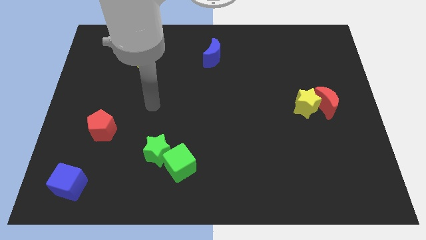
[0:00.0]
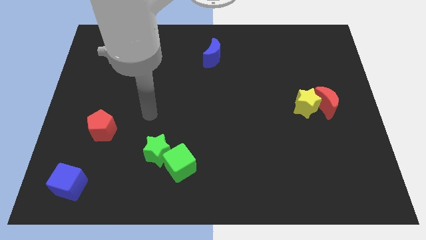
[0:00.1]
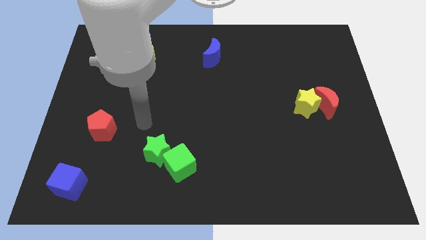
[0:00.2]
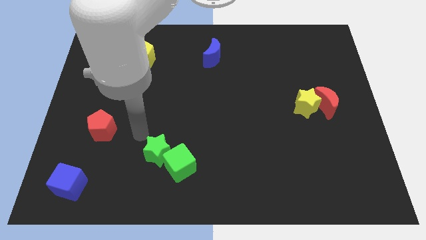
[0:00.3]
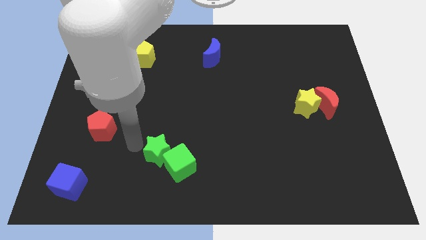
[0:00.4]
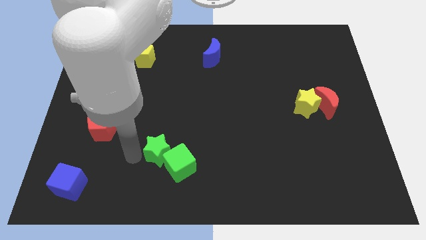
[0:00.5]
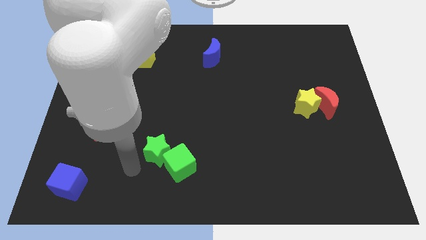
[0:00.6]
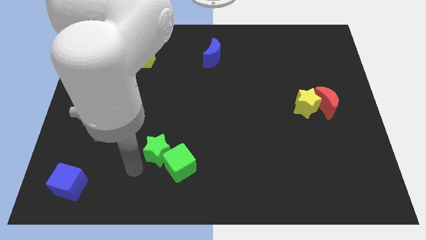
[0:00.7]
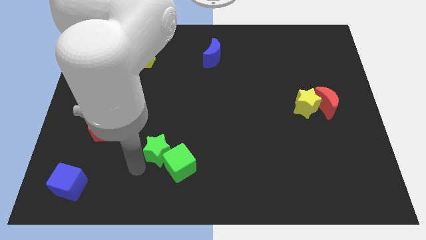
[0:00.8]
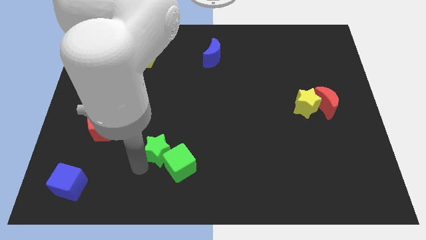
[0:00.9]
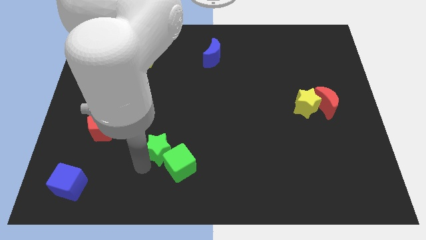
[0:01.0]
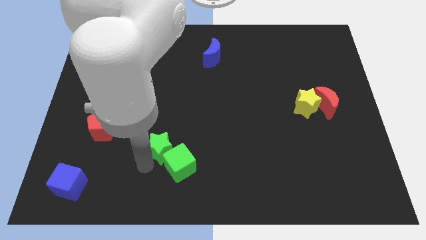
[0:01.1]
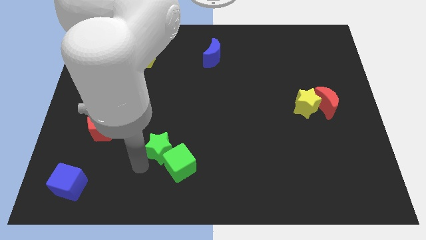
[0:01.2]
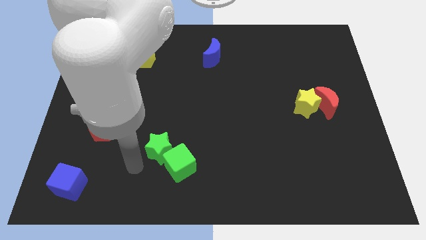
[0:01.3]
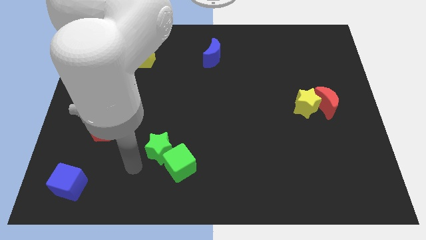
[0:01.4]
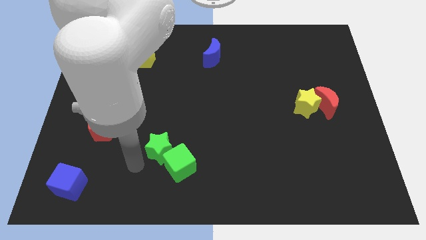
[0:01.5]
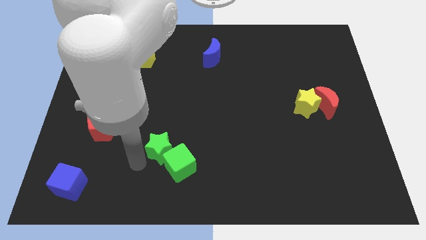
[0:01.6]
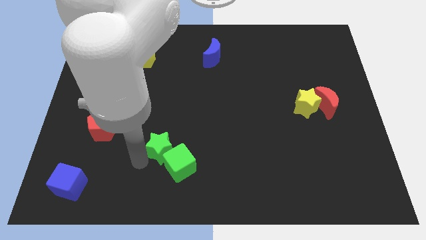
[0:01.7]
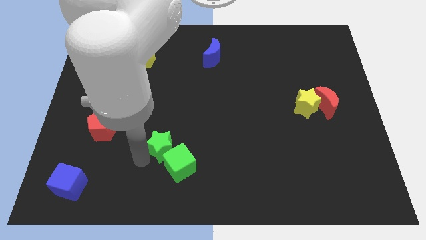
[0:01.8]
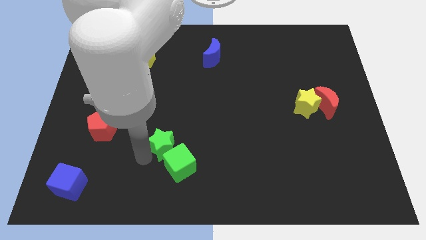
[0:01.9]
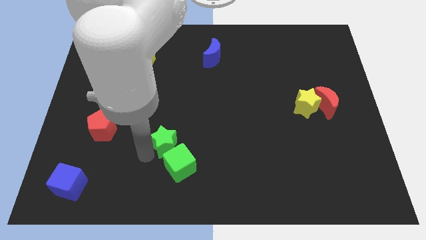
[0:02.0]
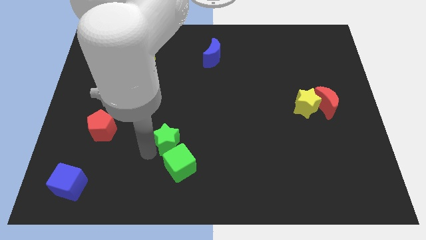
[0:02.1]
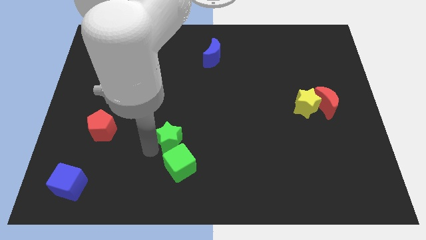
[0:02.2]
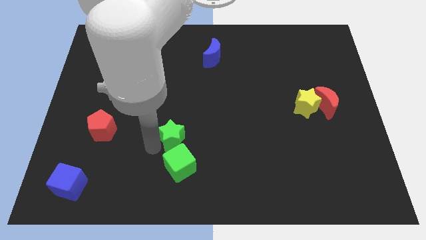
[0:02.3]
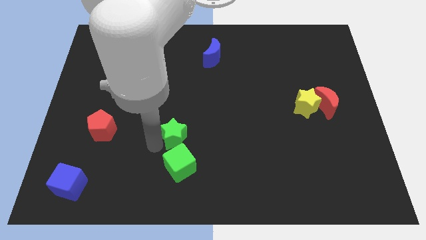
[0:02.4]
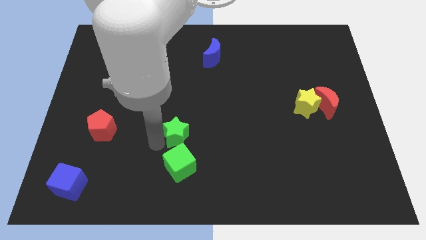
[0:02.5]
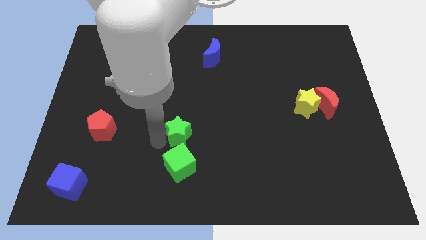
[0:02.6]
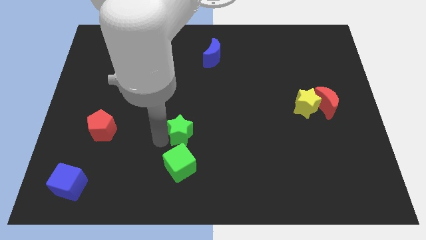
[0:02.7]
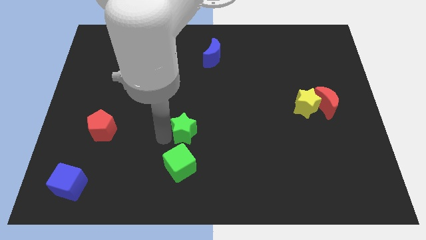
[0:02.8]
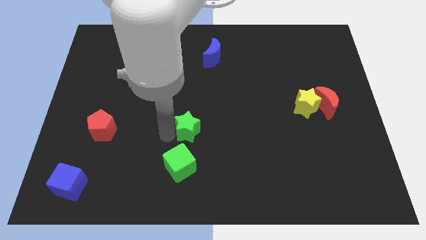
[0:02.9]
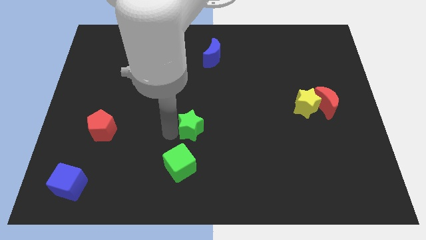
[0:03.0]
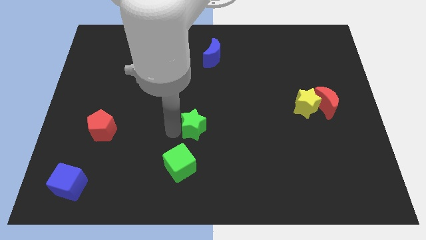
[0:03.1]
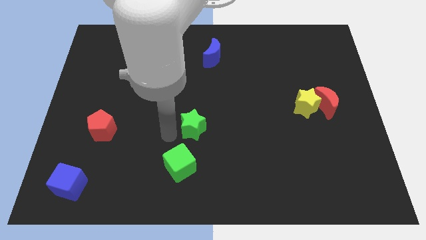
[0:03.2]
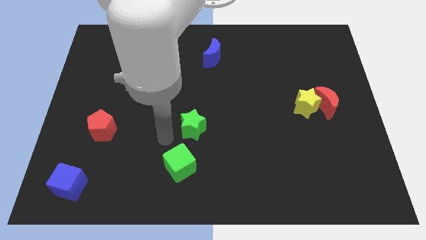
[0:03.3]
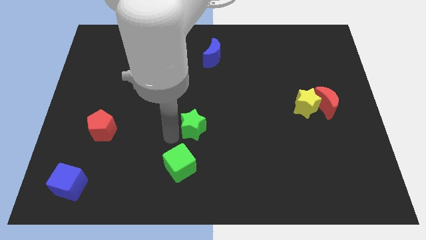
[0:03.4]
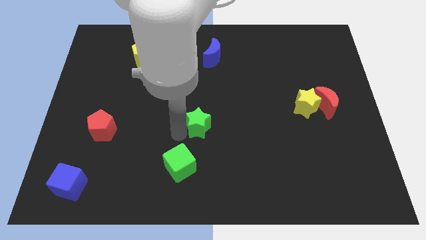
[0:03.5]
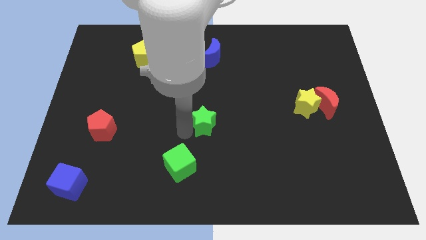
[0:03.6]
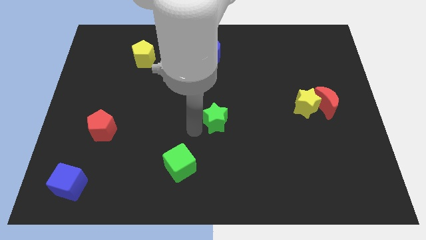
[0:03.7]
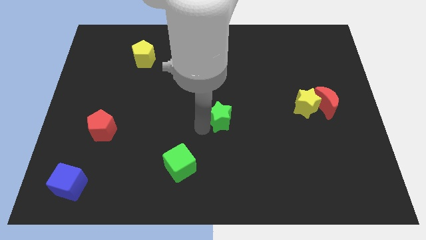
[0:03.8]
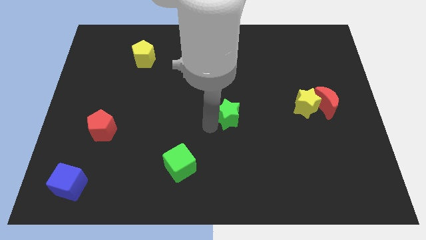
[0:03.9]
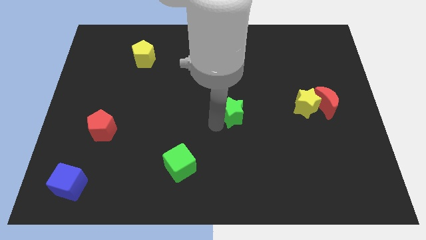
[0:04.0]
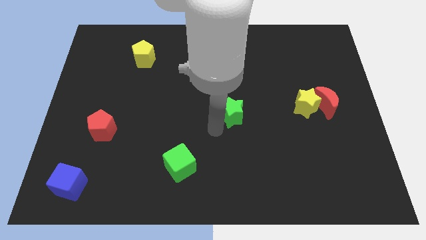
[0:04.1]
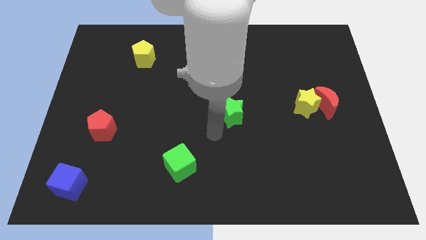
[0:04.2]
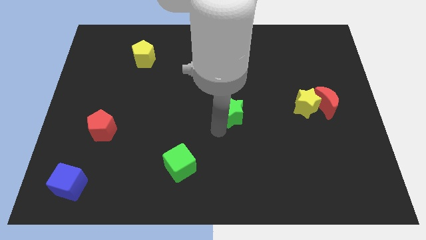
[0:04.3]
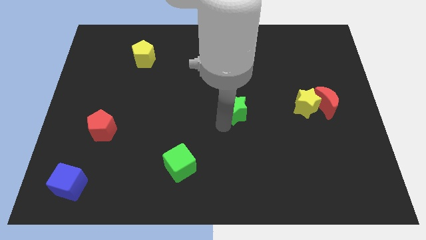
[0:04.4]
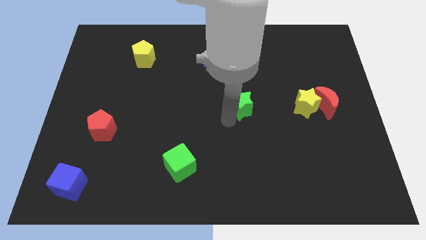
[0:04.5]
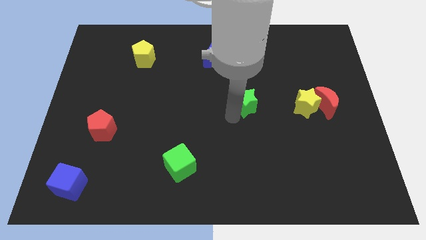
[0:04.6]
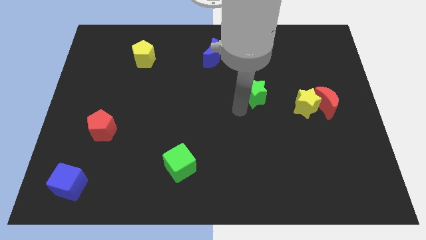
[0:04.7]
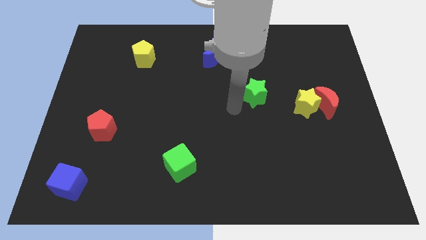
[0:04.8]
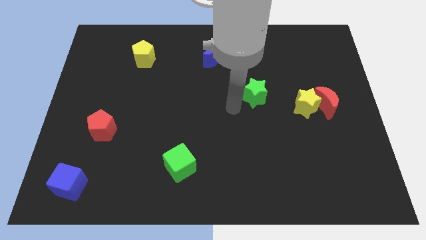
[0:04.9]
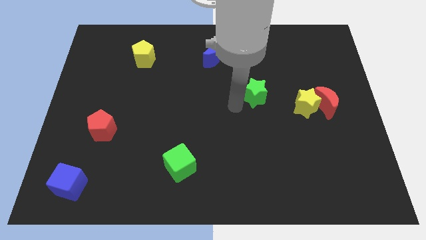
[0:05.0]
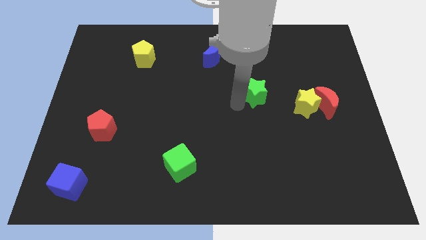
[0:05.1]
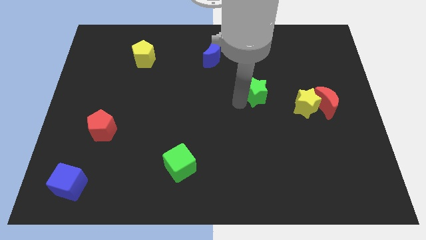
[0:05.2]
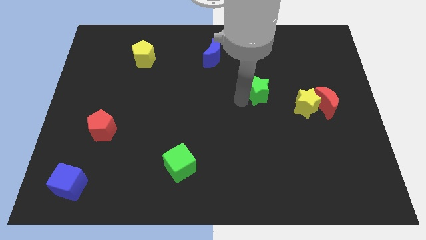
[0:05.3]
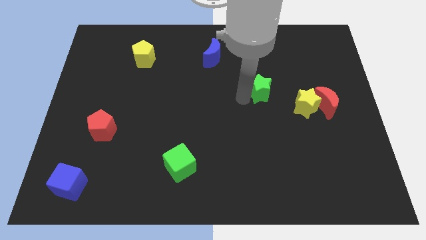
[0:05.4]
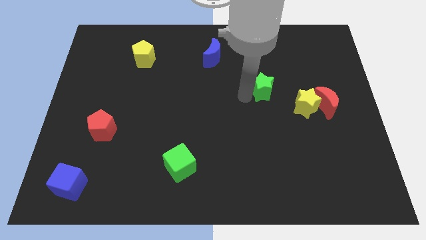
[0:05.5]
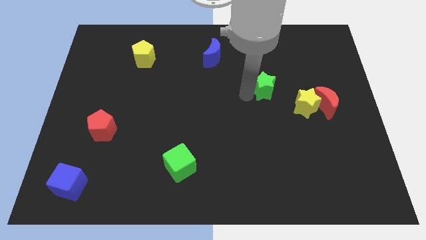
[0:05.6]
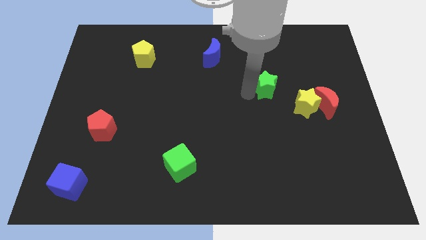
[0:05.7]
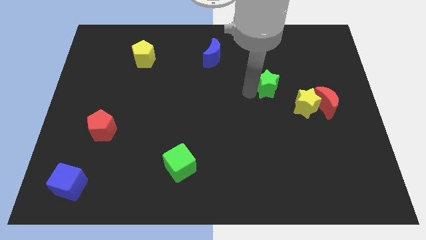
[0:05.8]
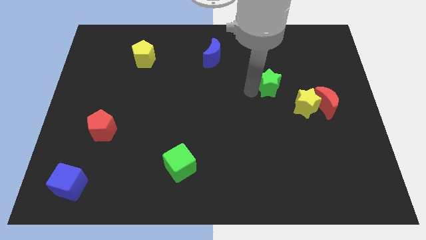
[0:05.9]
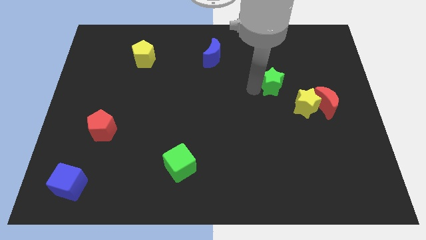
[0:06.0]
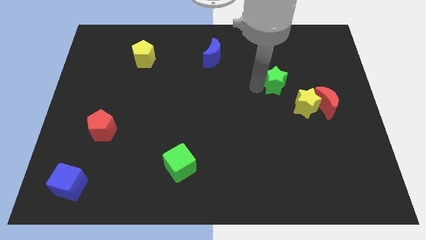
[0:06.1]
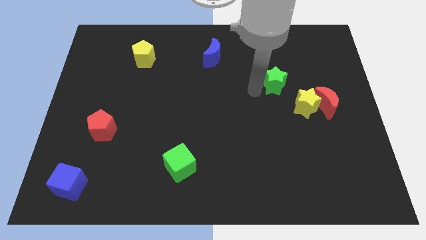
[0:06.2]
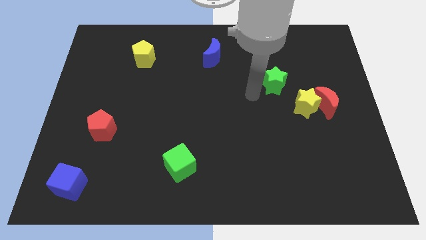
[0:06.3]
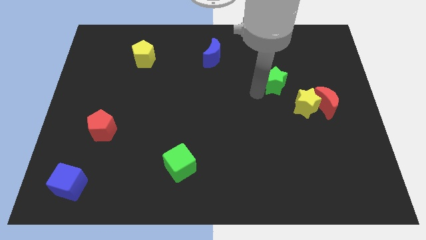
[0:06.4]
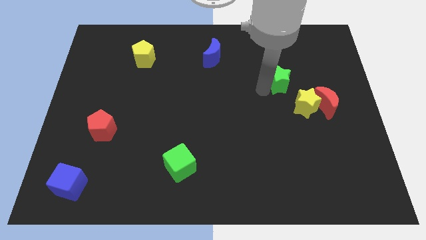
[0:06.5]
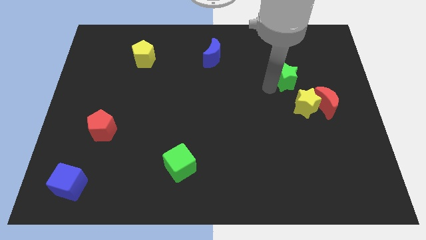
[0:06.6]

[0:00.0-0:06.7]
move the green star above the yellow star

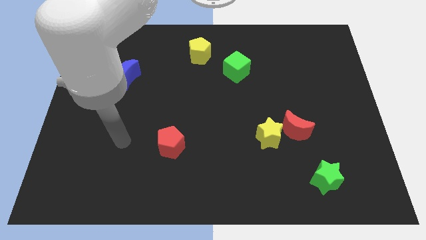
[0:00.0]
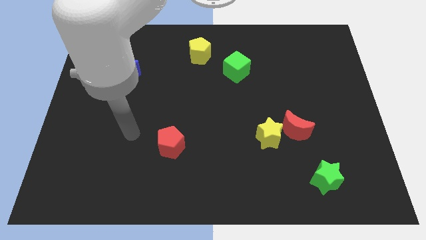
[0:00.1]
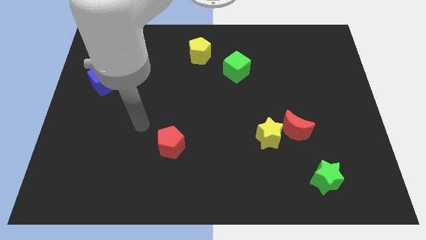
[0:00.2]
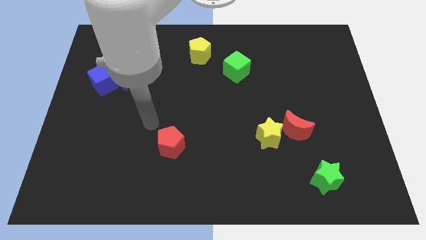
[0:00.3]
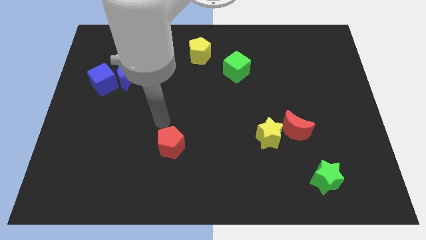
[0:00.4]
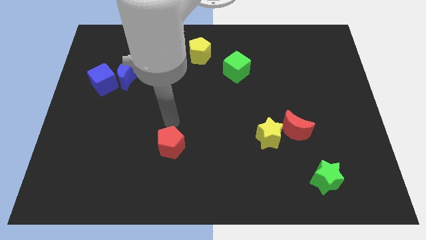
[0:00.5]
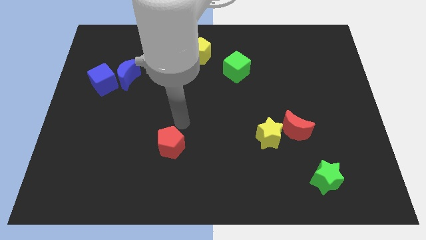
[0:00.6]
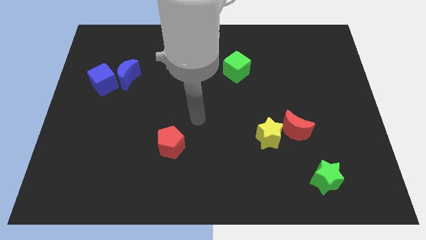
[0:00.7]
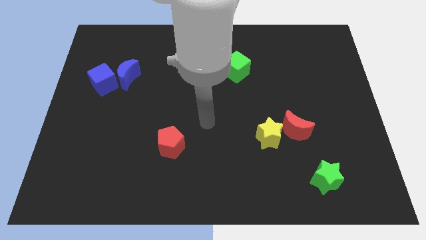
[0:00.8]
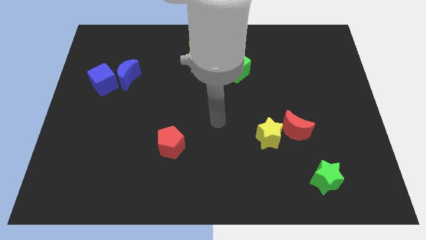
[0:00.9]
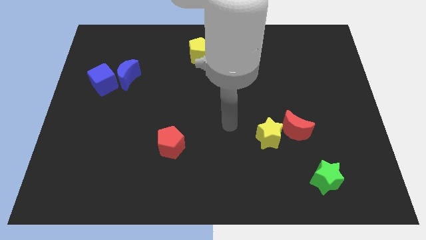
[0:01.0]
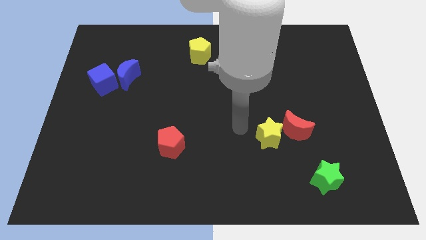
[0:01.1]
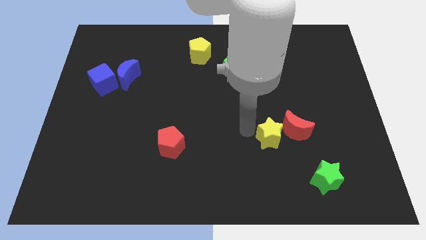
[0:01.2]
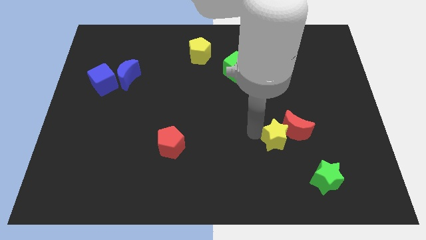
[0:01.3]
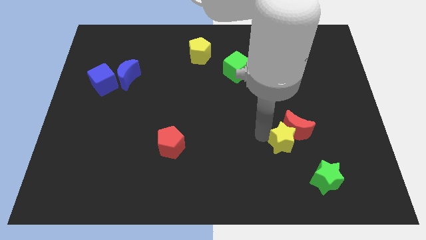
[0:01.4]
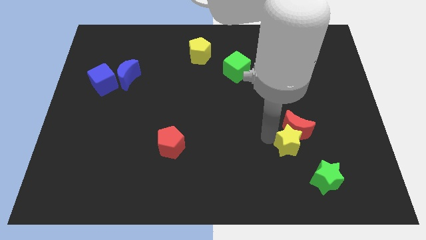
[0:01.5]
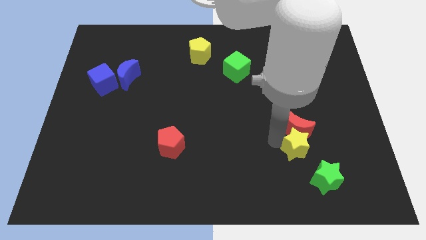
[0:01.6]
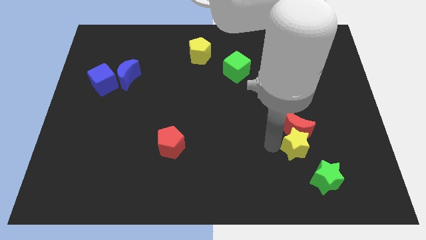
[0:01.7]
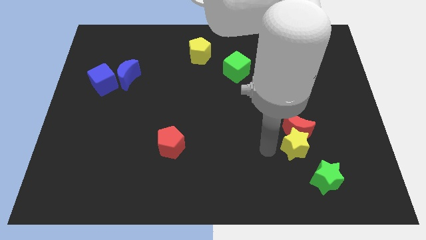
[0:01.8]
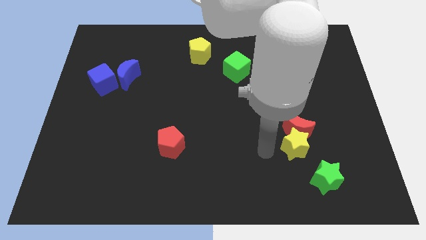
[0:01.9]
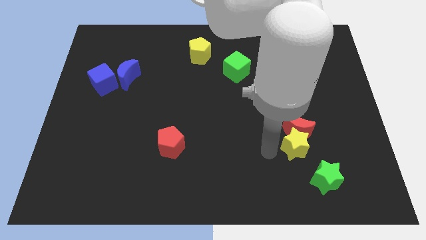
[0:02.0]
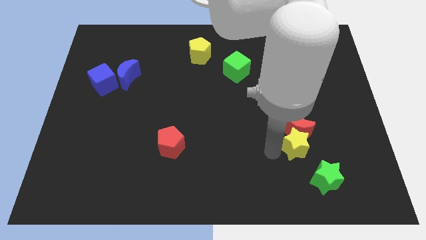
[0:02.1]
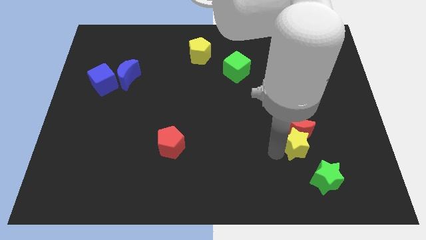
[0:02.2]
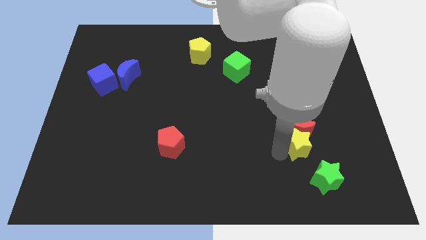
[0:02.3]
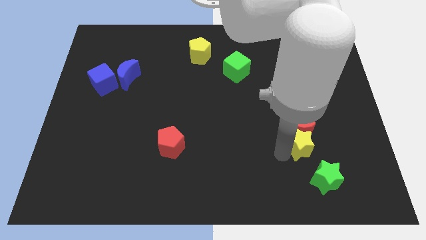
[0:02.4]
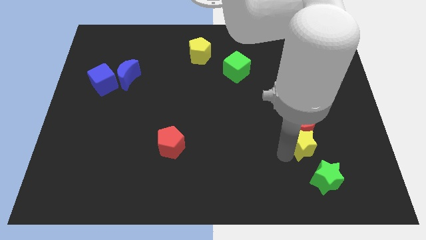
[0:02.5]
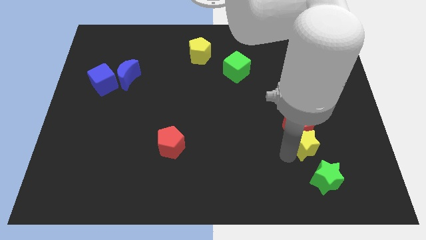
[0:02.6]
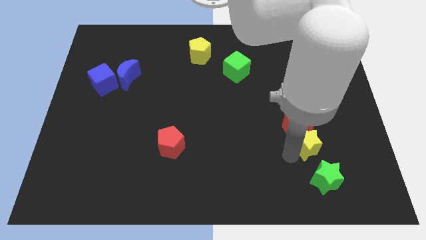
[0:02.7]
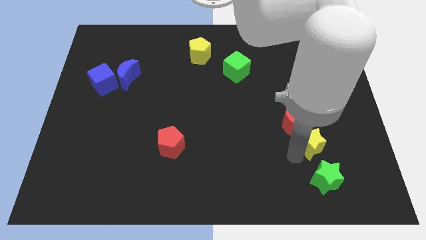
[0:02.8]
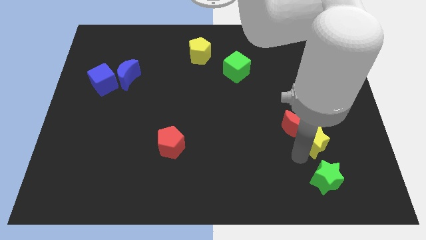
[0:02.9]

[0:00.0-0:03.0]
move the yellow star right of the red moon
